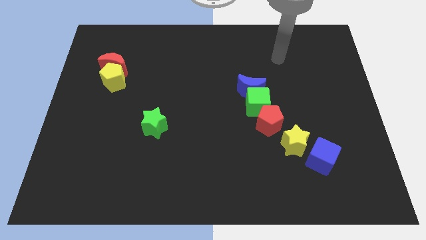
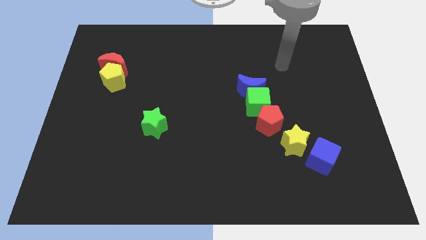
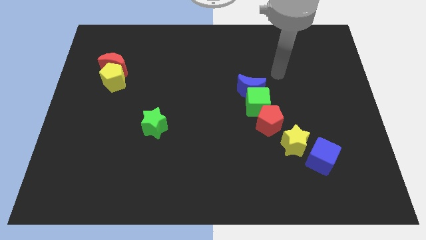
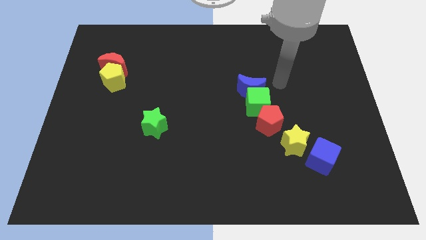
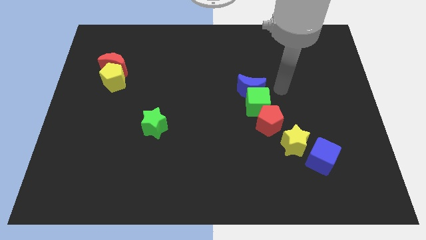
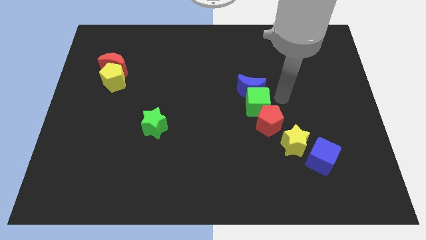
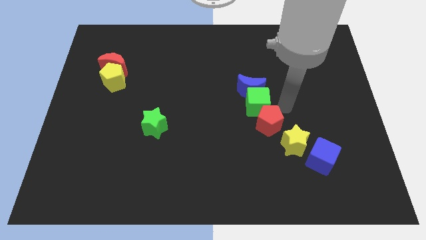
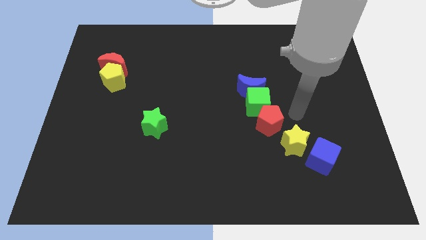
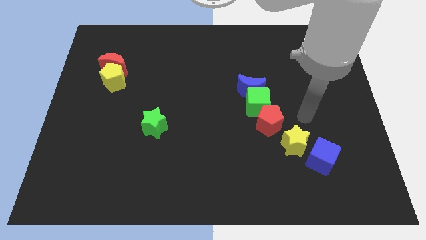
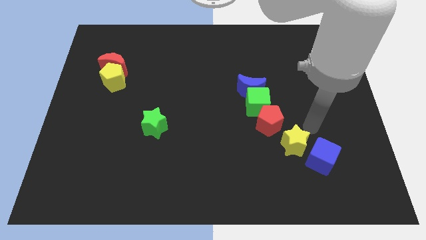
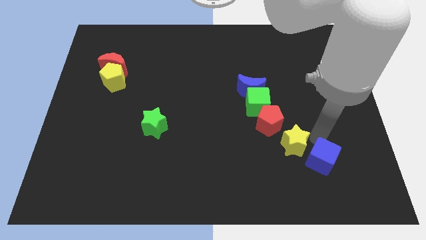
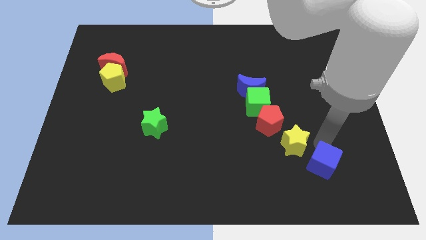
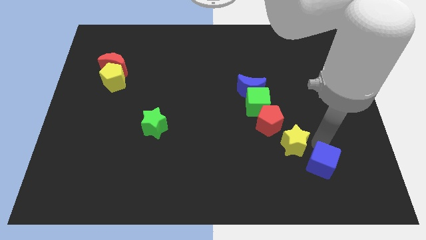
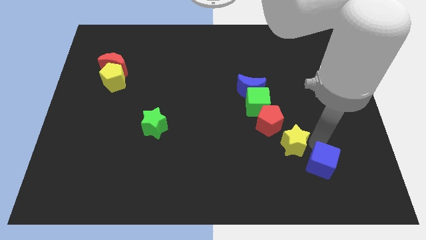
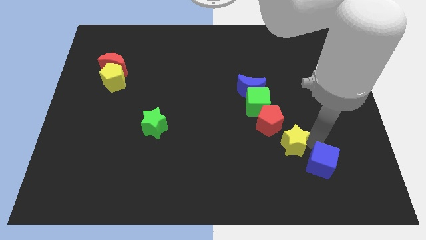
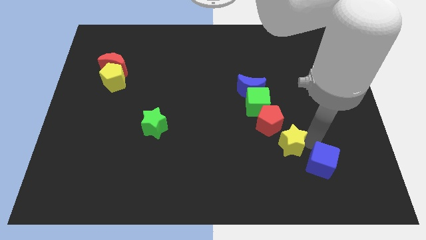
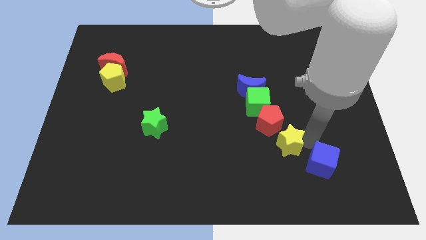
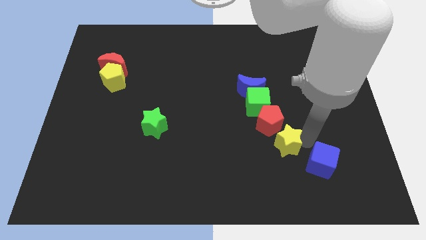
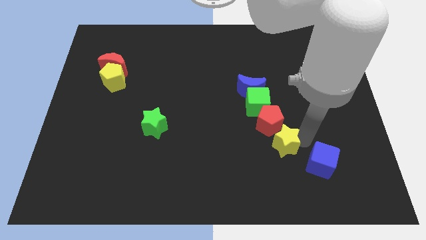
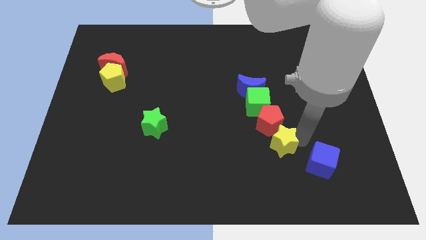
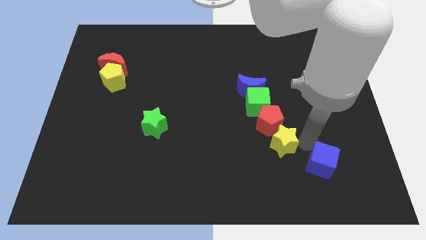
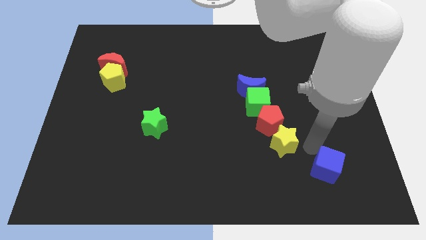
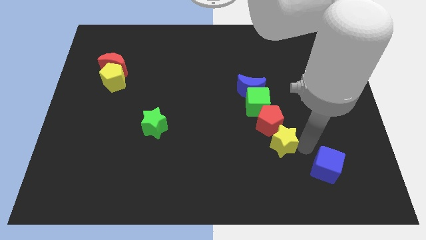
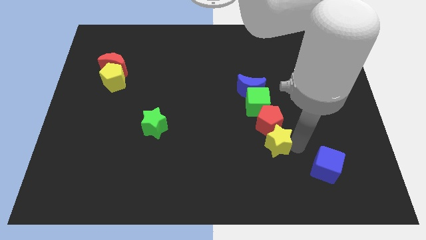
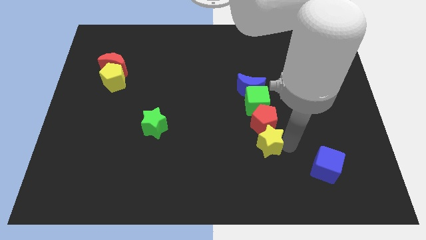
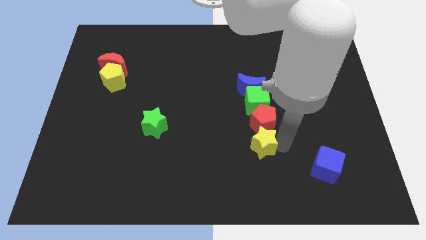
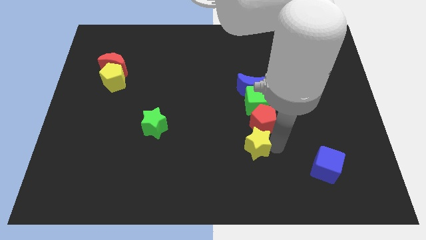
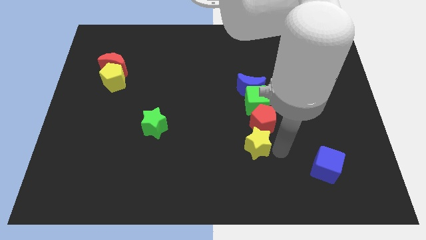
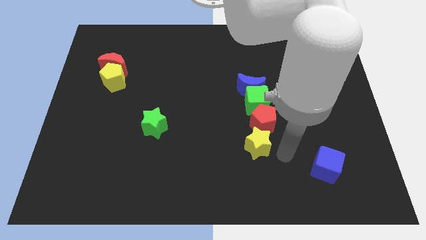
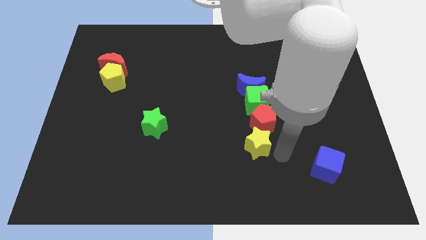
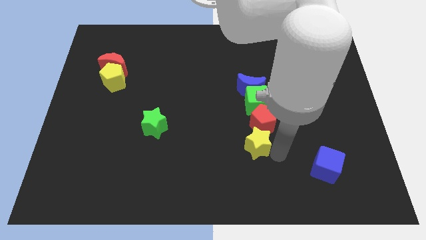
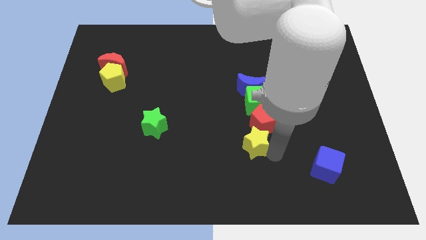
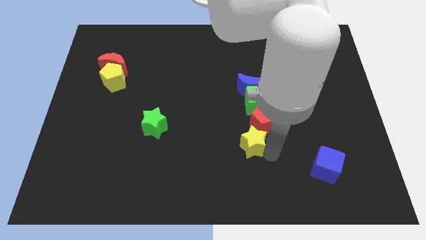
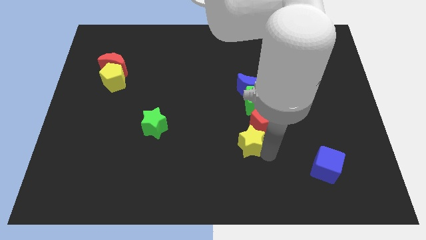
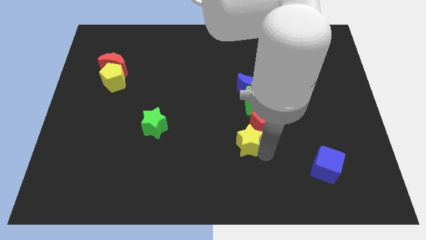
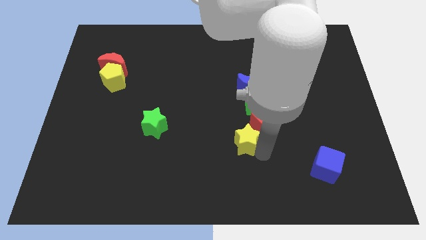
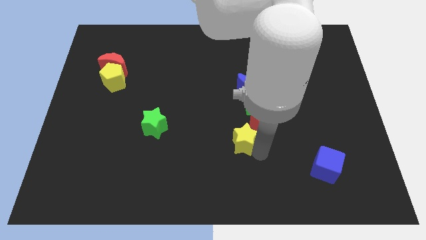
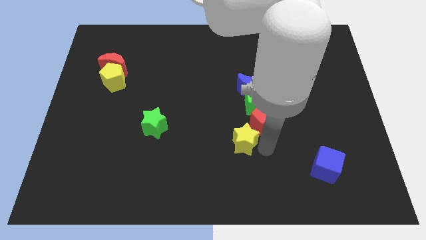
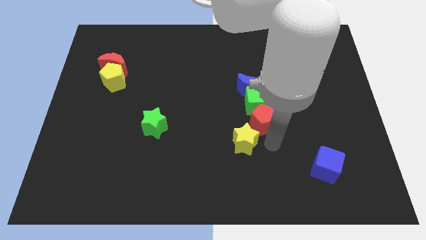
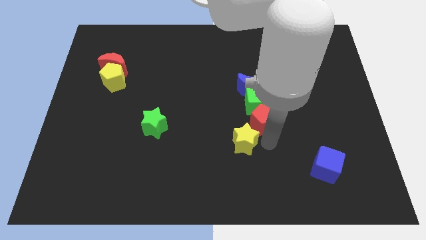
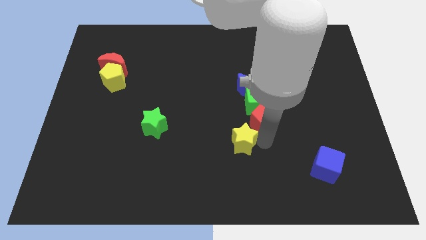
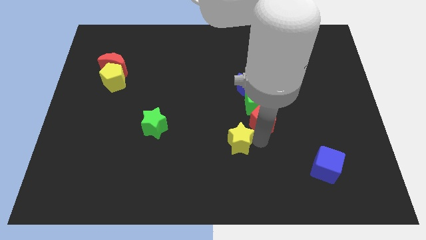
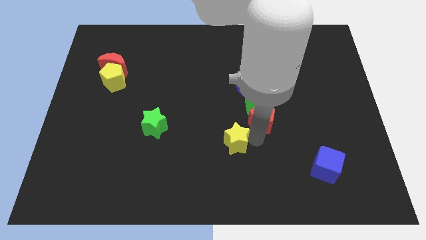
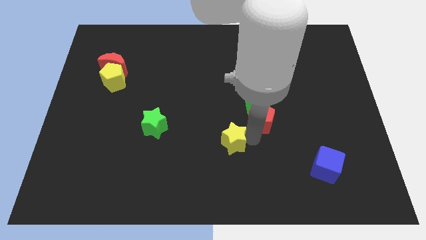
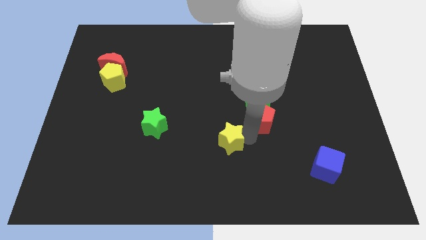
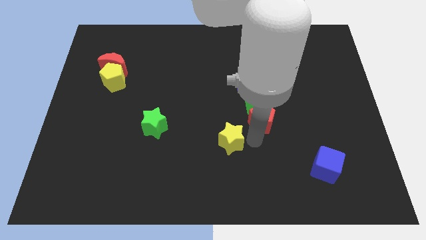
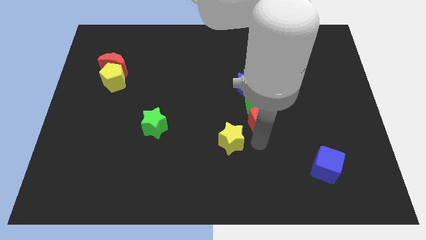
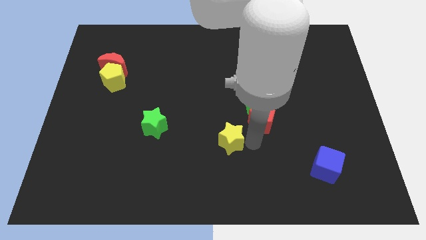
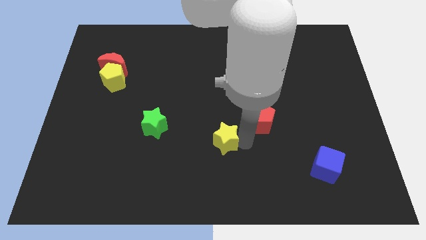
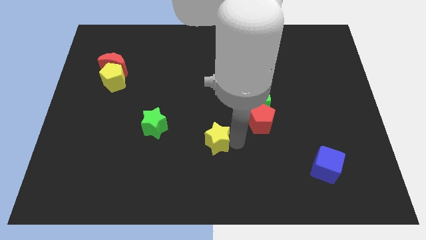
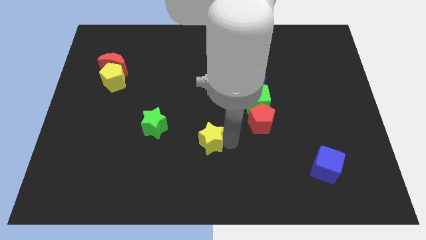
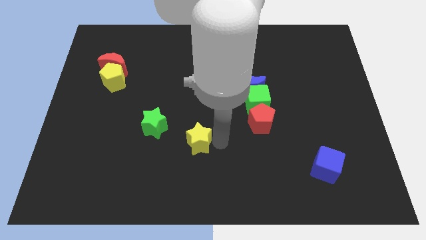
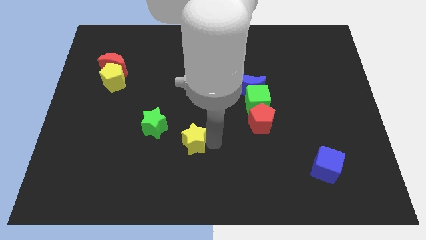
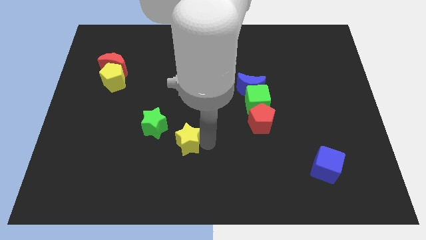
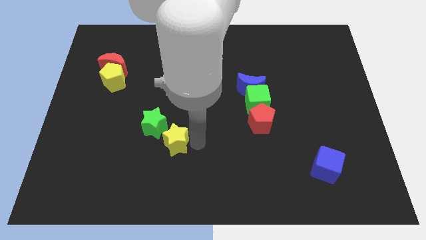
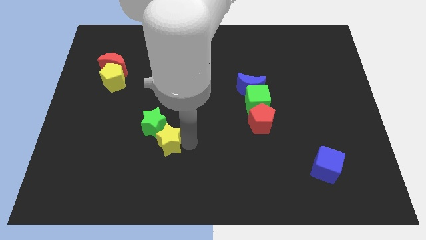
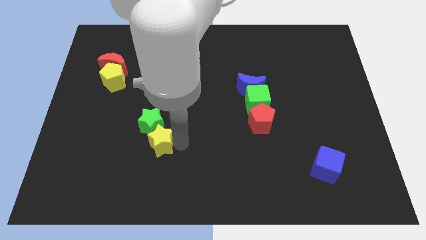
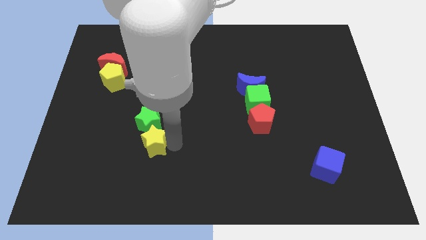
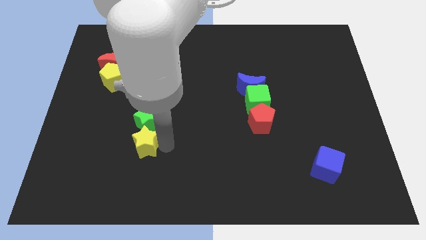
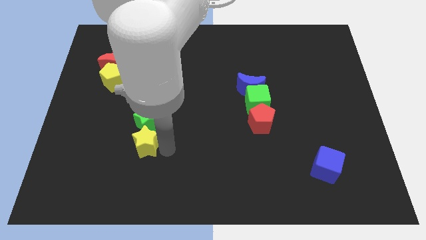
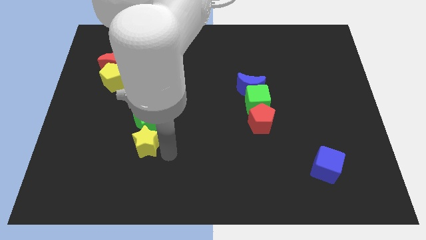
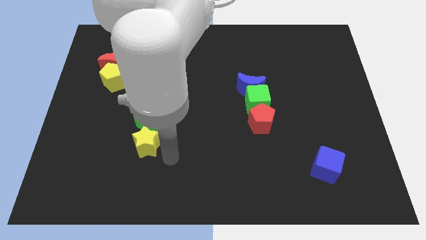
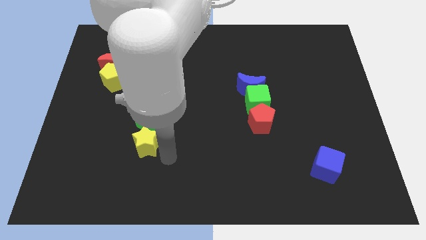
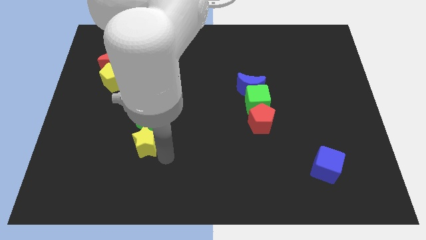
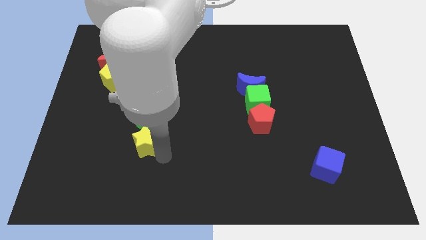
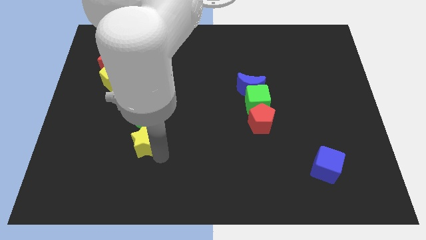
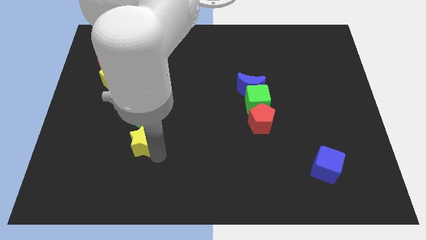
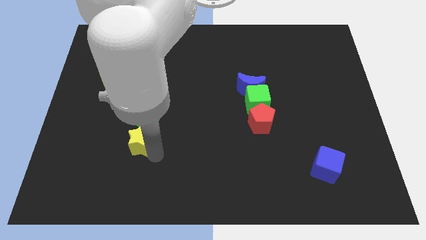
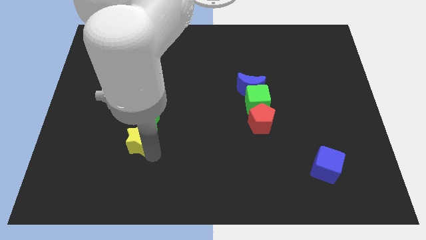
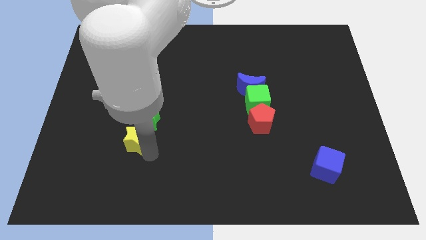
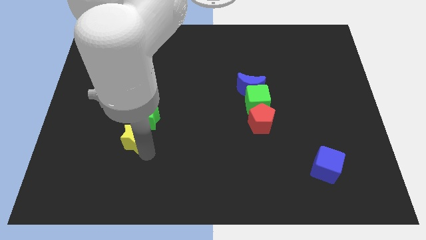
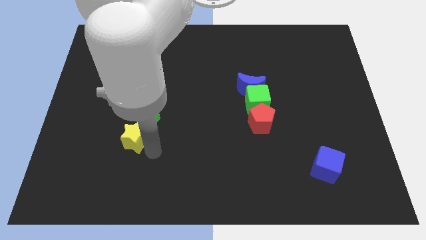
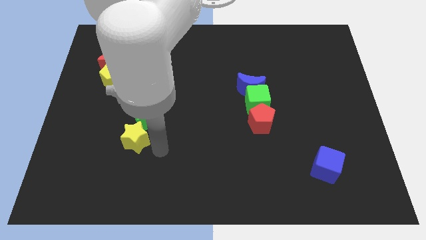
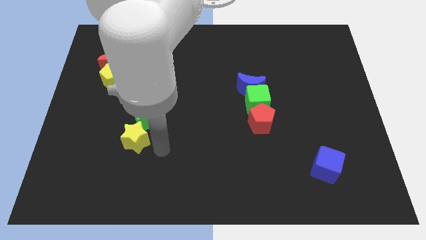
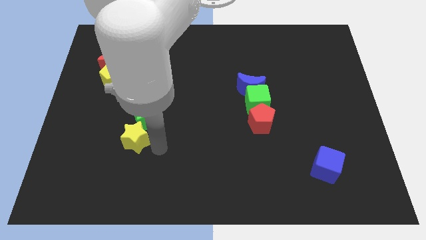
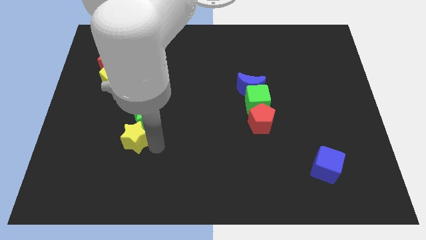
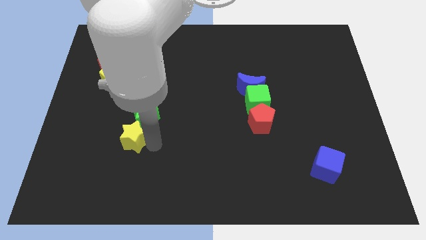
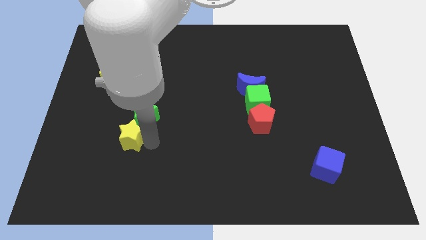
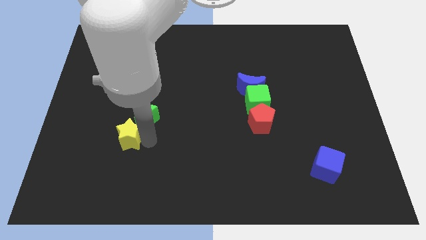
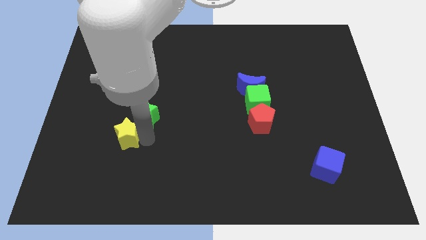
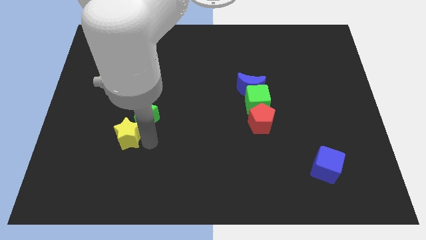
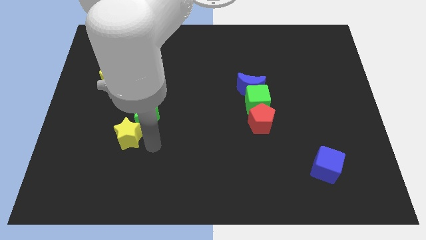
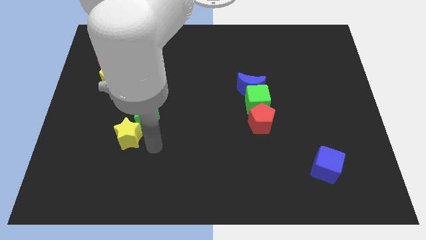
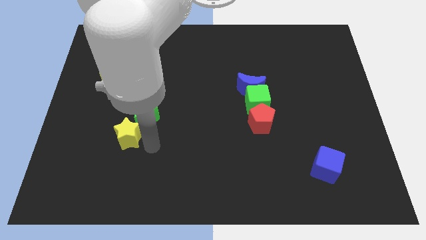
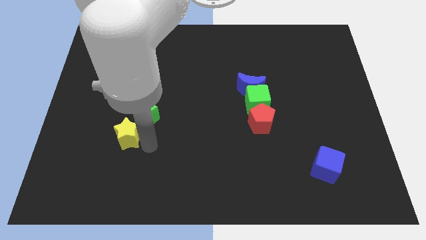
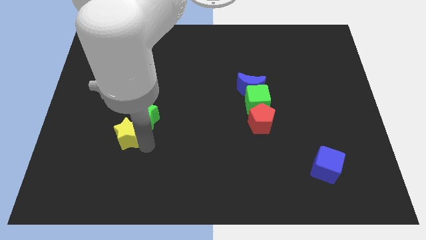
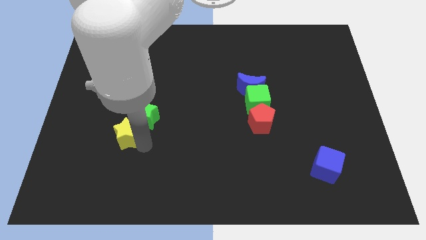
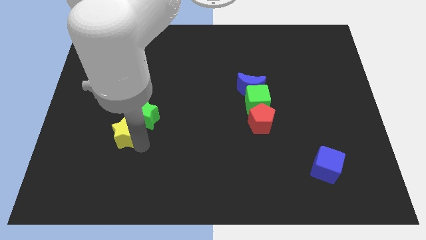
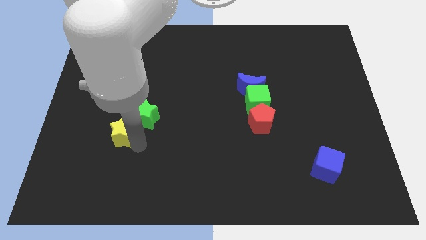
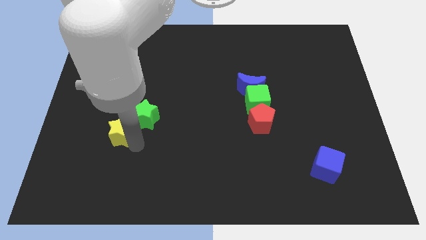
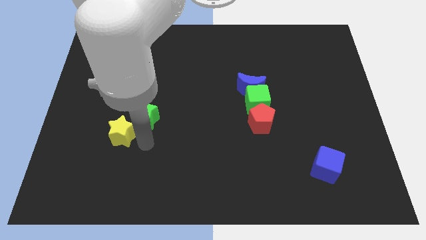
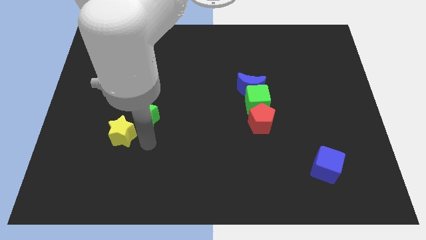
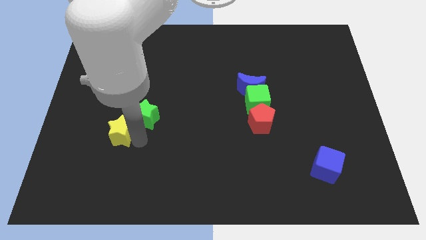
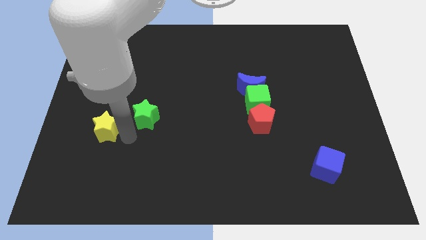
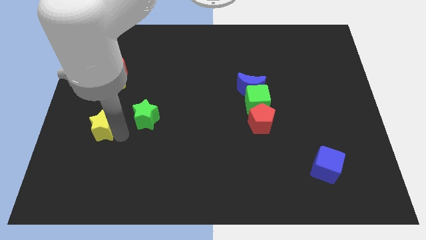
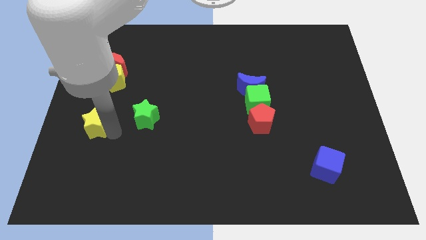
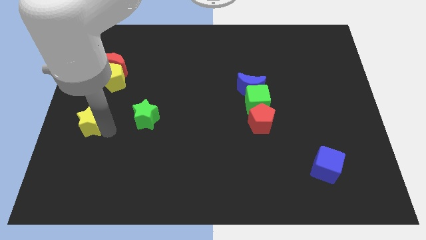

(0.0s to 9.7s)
put the yellow star to the center left
